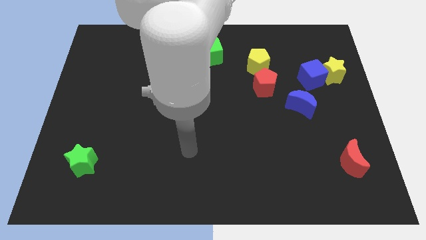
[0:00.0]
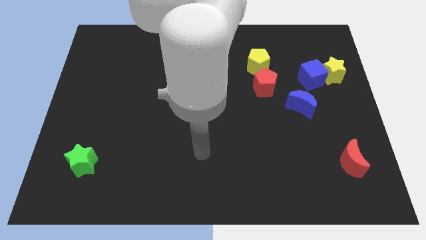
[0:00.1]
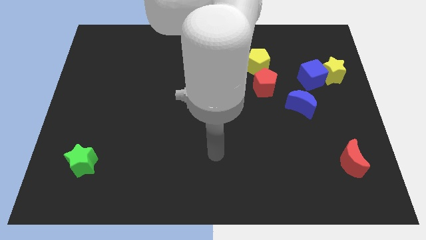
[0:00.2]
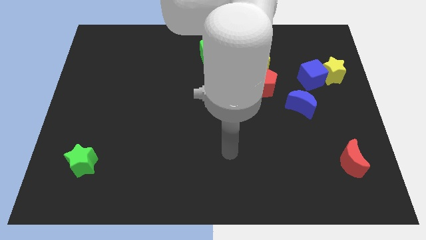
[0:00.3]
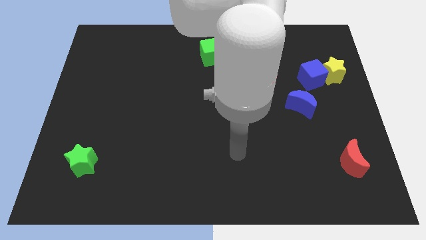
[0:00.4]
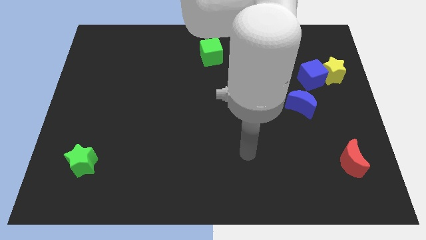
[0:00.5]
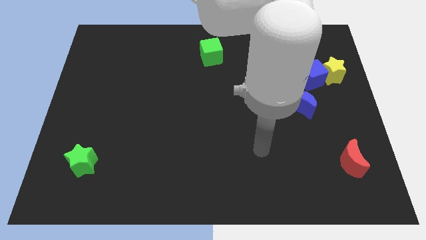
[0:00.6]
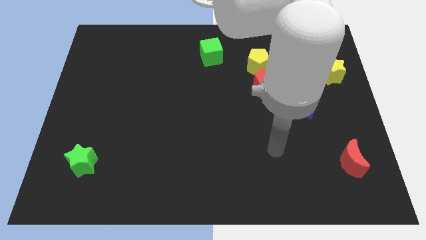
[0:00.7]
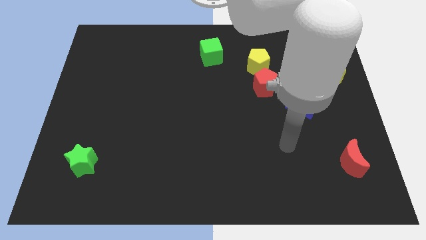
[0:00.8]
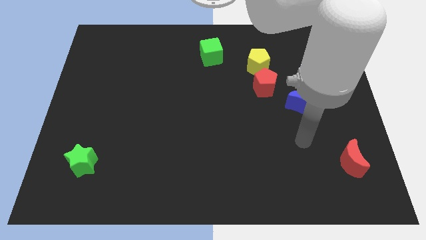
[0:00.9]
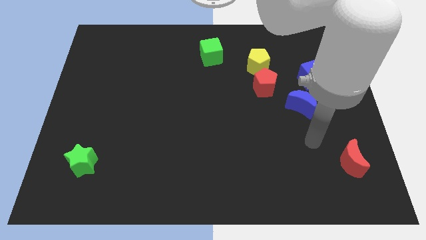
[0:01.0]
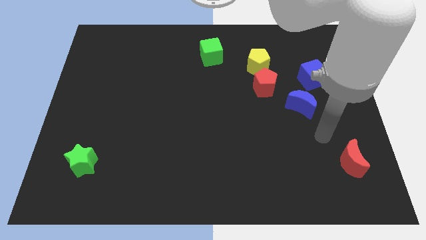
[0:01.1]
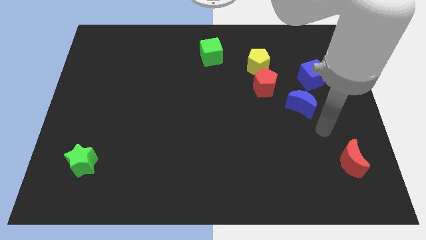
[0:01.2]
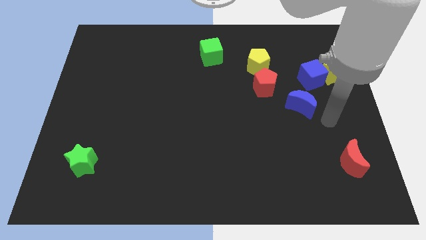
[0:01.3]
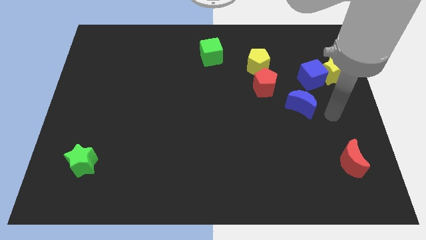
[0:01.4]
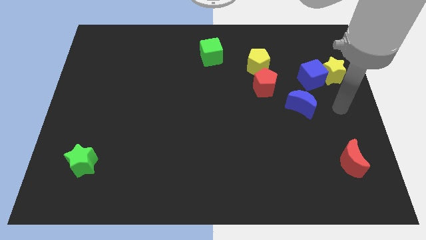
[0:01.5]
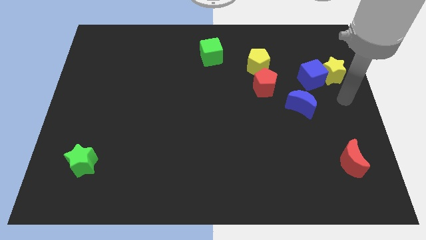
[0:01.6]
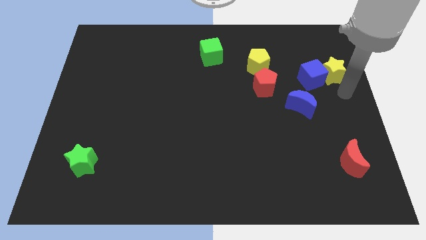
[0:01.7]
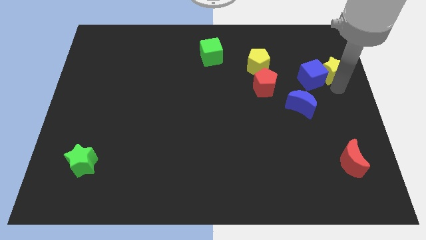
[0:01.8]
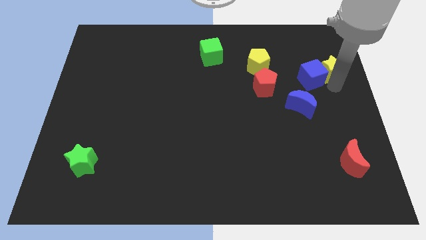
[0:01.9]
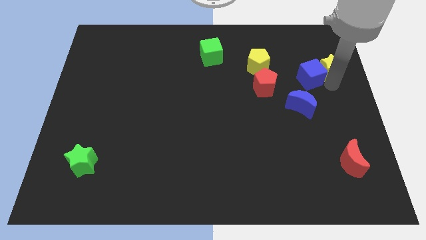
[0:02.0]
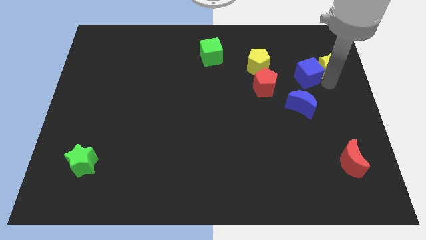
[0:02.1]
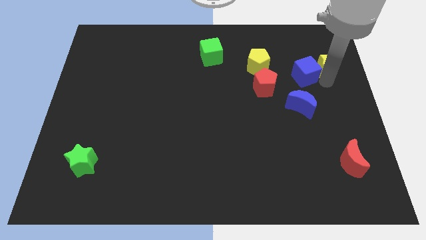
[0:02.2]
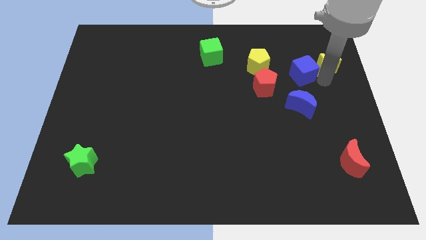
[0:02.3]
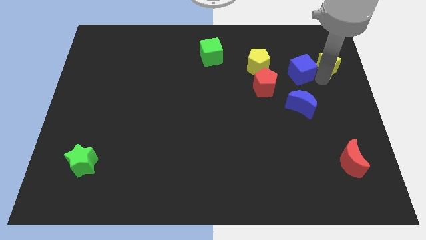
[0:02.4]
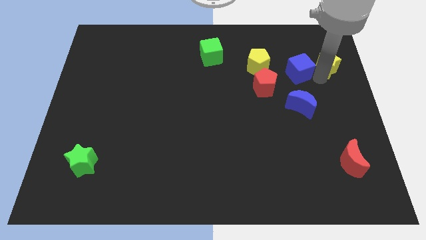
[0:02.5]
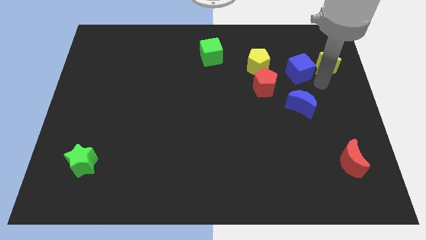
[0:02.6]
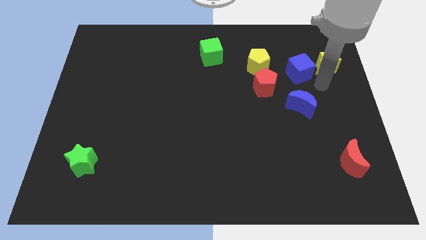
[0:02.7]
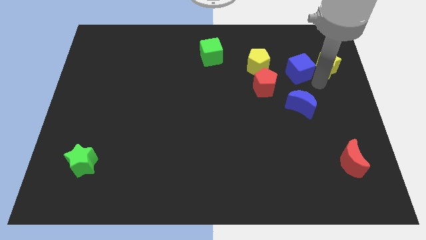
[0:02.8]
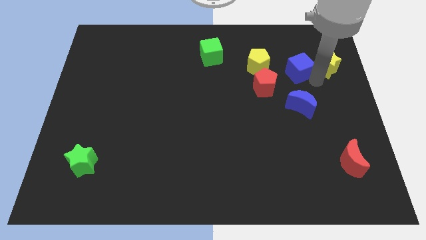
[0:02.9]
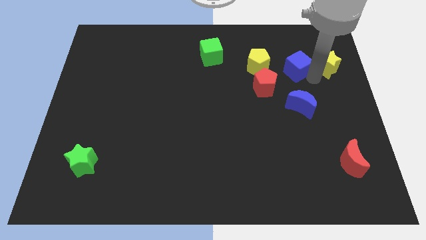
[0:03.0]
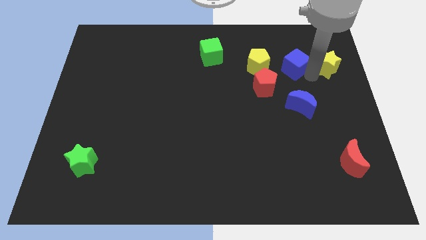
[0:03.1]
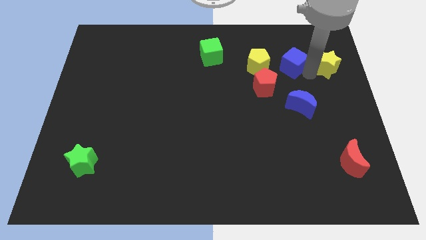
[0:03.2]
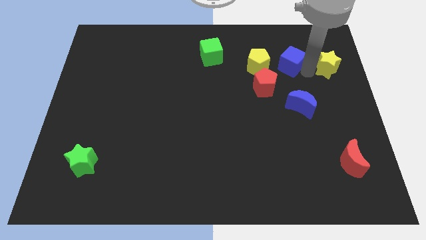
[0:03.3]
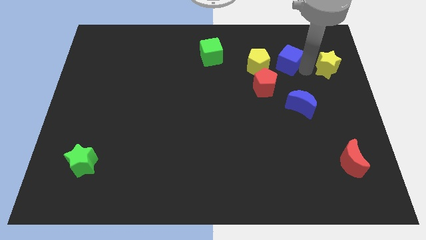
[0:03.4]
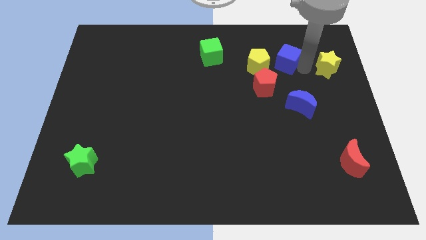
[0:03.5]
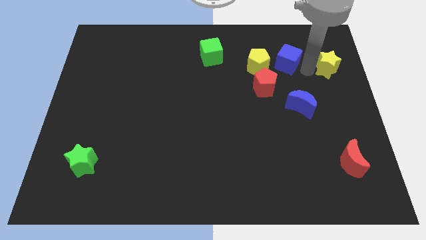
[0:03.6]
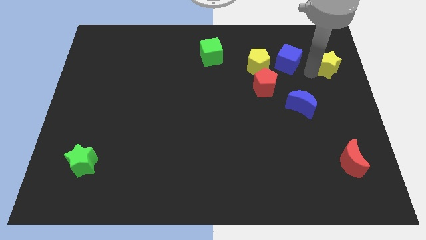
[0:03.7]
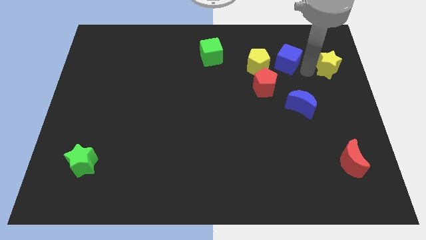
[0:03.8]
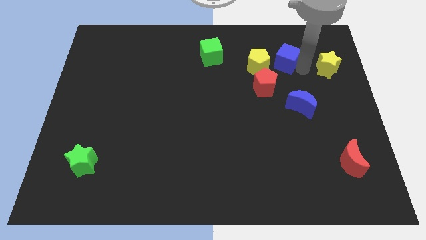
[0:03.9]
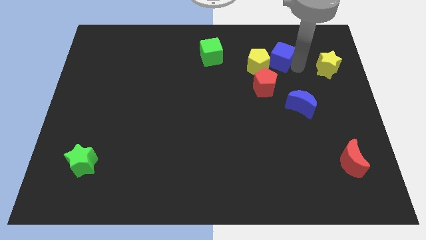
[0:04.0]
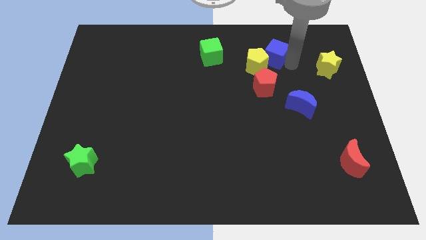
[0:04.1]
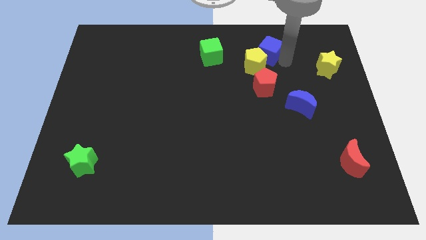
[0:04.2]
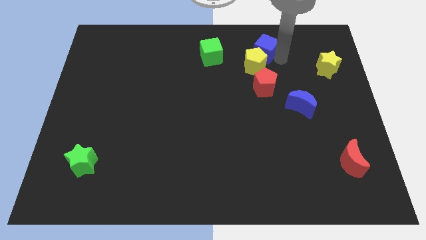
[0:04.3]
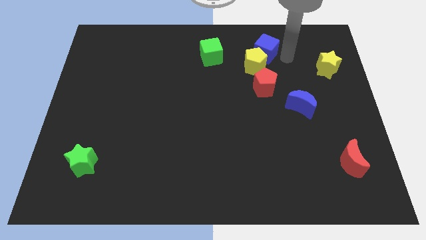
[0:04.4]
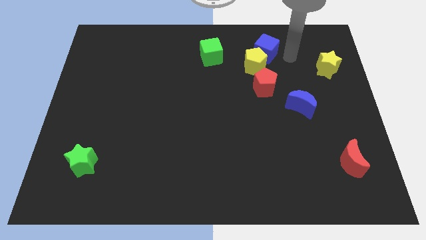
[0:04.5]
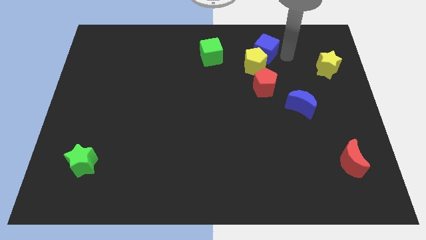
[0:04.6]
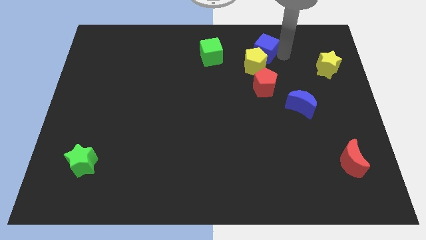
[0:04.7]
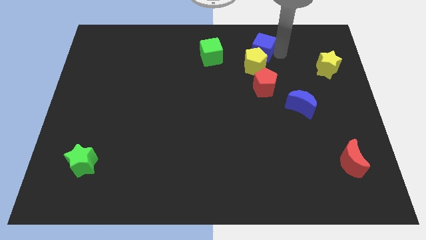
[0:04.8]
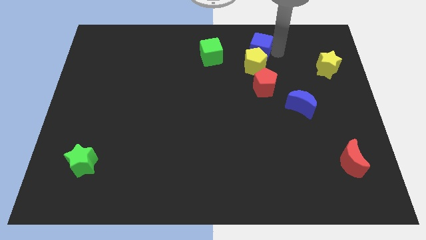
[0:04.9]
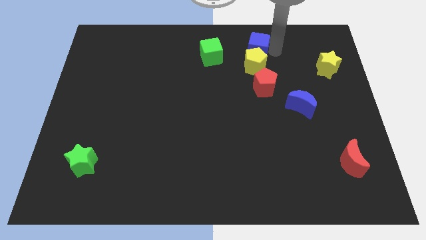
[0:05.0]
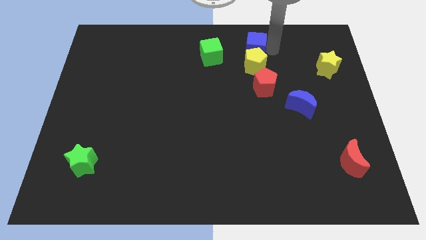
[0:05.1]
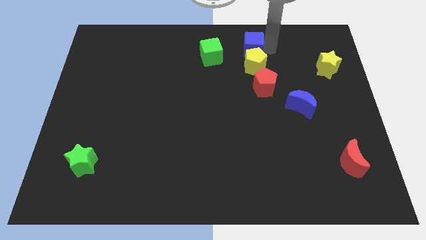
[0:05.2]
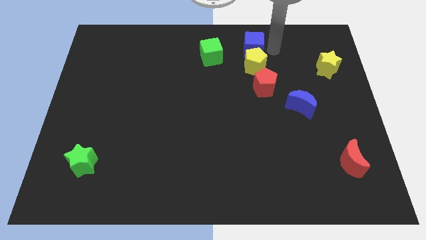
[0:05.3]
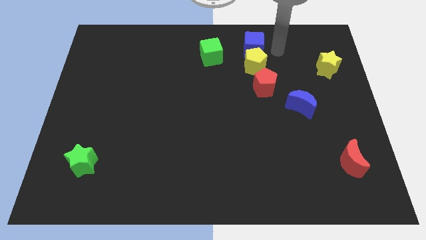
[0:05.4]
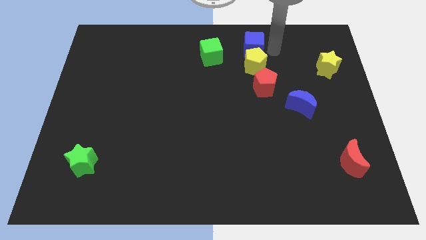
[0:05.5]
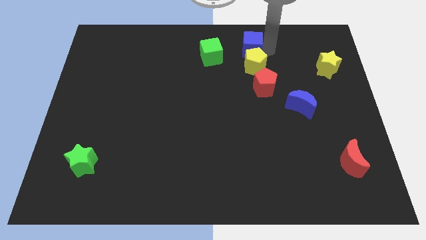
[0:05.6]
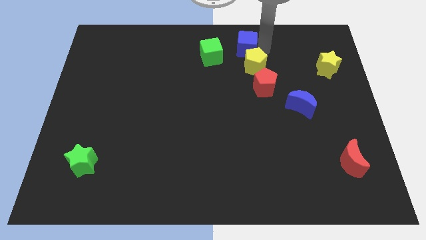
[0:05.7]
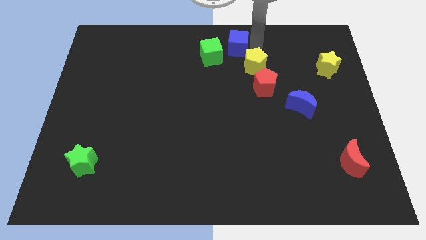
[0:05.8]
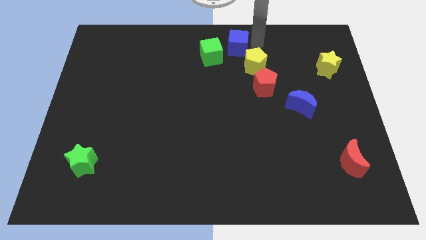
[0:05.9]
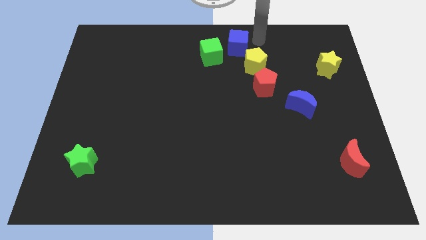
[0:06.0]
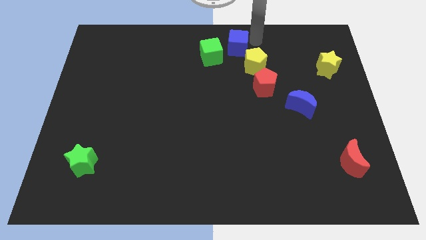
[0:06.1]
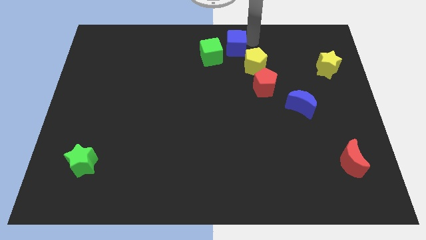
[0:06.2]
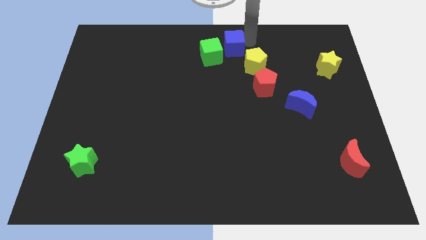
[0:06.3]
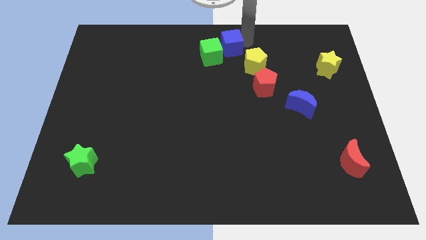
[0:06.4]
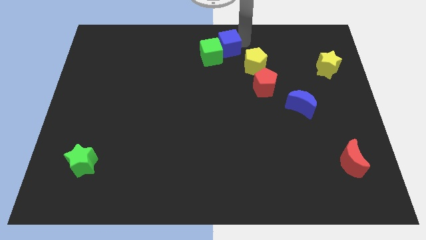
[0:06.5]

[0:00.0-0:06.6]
slide the blue cube towards the green cube

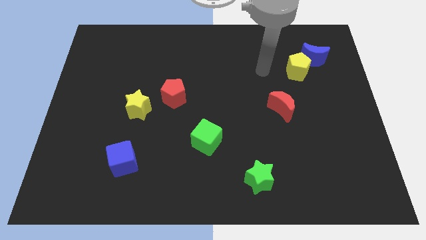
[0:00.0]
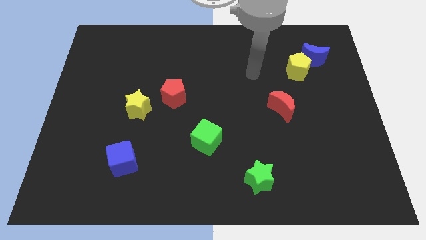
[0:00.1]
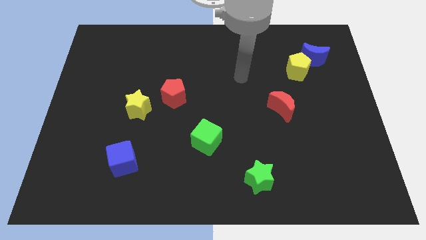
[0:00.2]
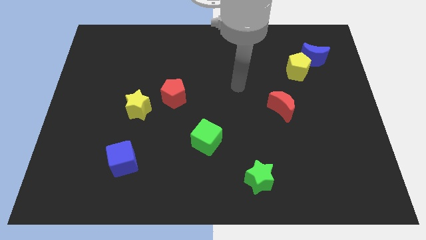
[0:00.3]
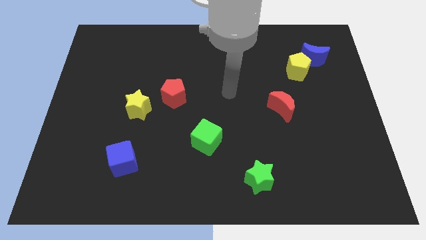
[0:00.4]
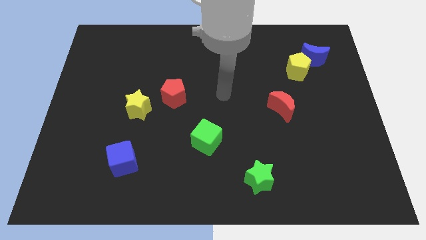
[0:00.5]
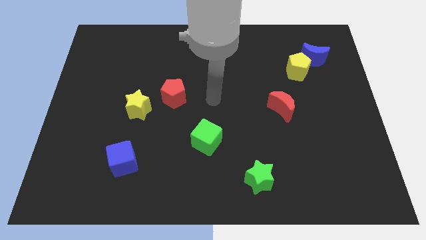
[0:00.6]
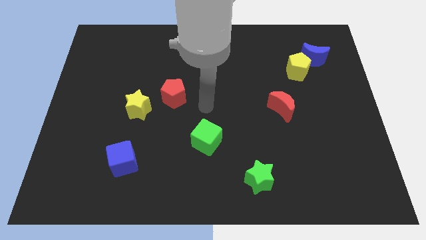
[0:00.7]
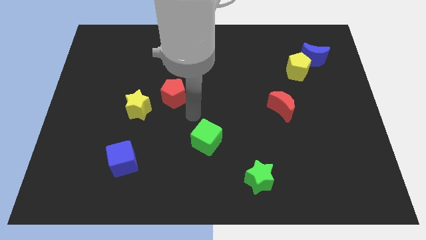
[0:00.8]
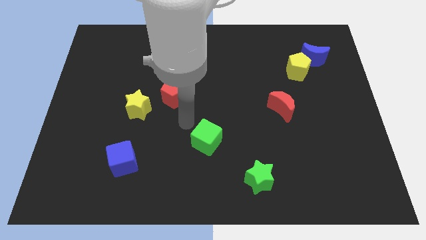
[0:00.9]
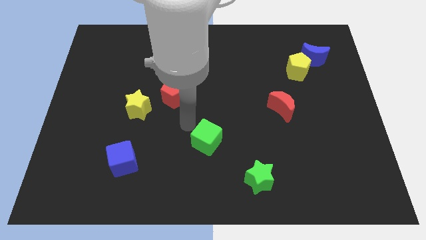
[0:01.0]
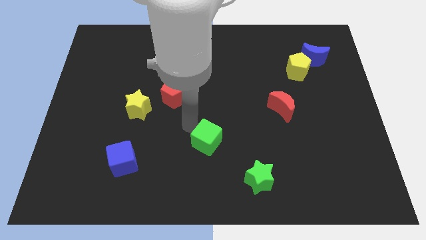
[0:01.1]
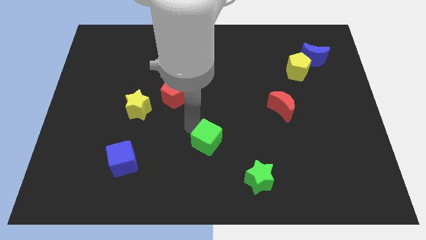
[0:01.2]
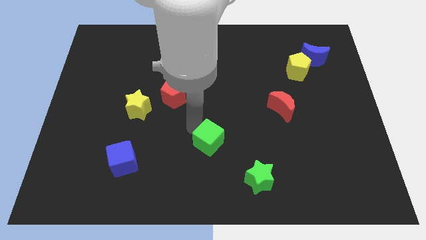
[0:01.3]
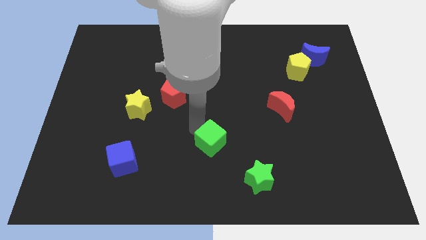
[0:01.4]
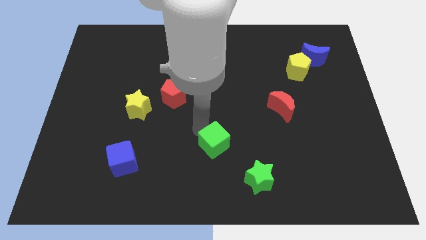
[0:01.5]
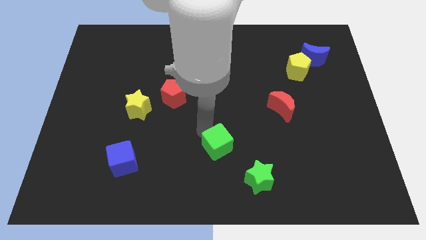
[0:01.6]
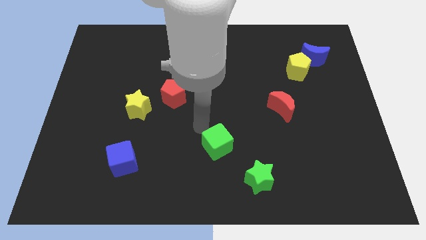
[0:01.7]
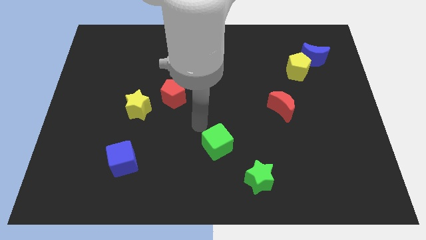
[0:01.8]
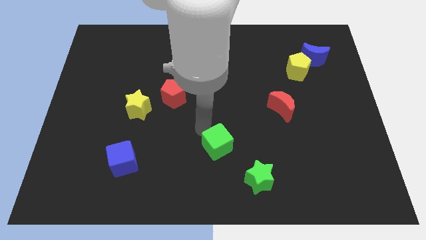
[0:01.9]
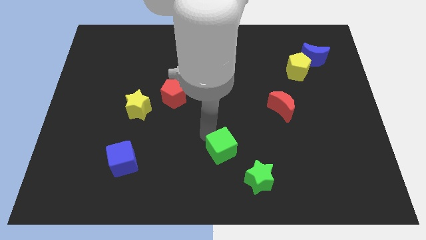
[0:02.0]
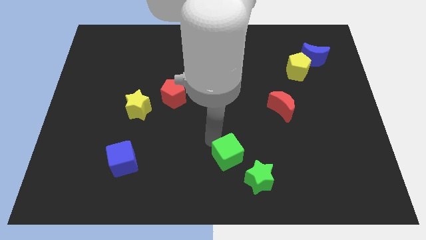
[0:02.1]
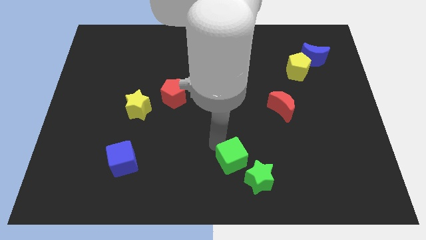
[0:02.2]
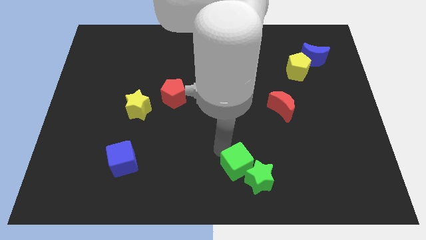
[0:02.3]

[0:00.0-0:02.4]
slide the green cube close to the green star
